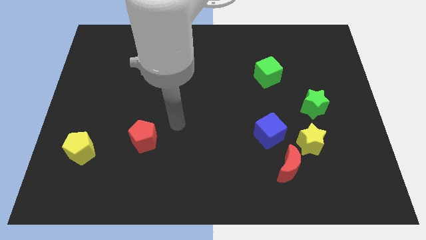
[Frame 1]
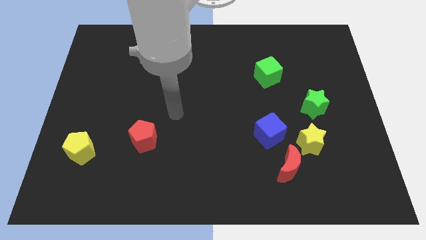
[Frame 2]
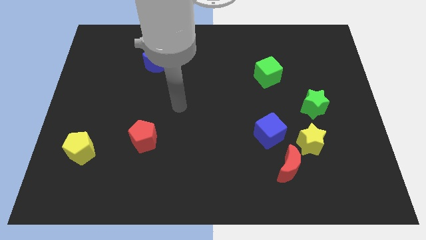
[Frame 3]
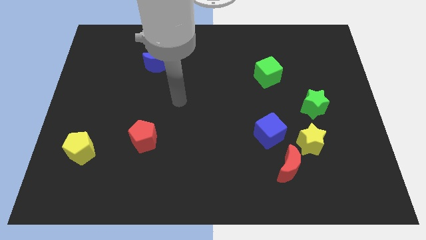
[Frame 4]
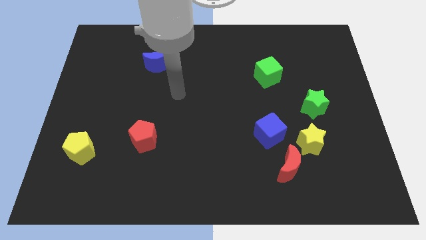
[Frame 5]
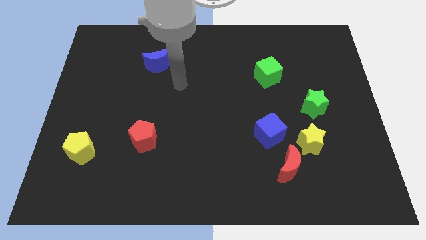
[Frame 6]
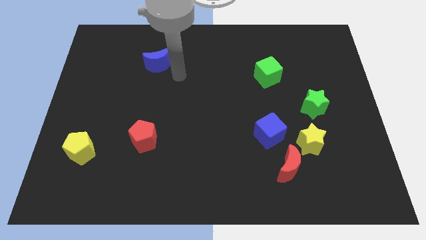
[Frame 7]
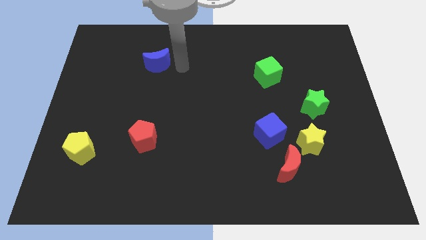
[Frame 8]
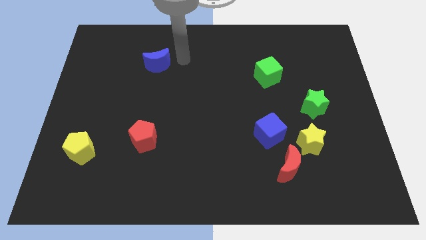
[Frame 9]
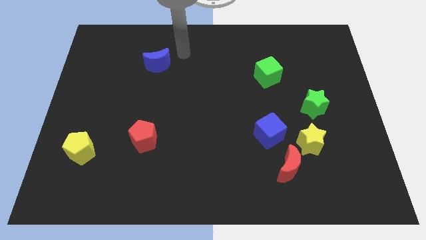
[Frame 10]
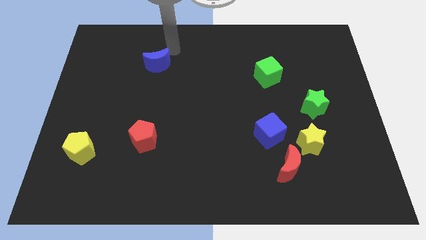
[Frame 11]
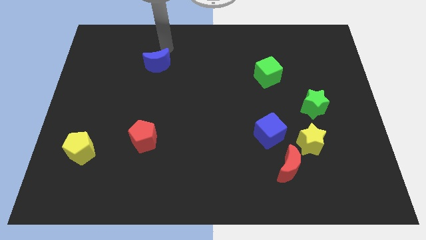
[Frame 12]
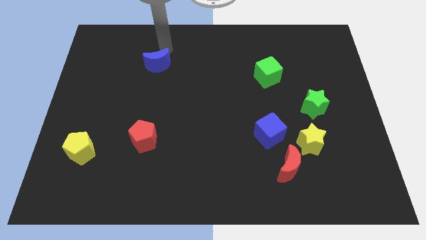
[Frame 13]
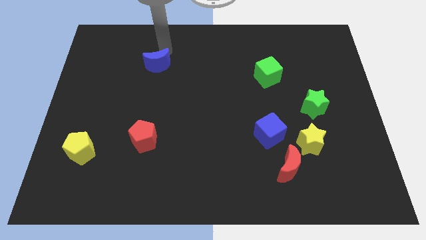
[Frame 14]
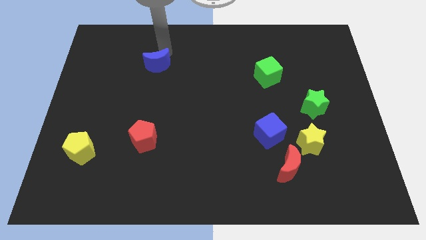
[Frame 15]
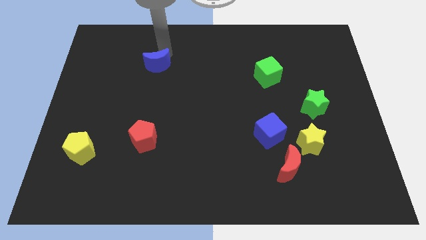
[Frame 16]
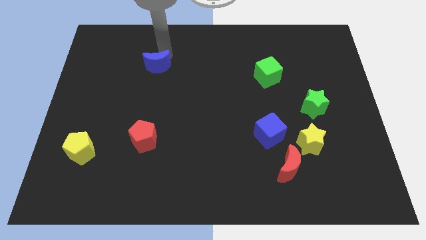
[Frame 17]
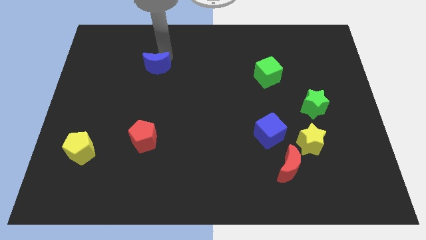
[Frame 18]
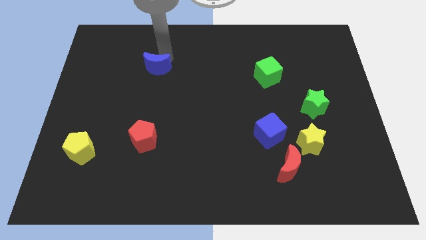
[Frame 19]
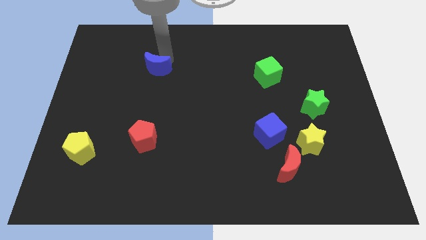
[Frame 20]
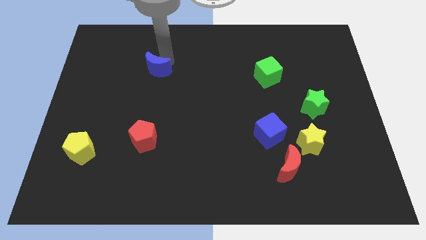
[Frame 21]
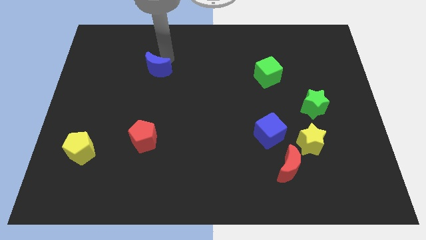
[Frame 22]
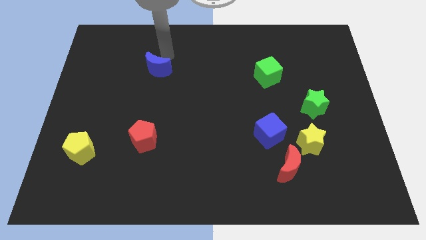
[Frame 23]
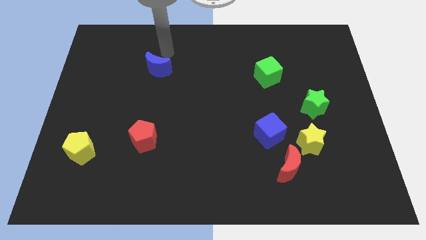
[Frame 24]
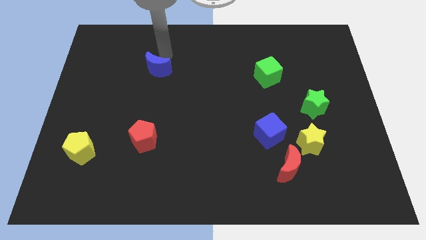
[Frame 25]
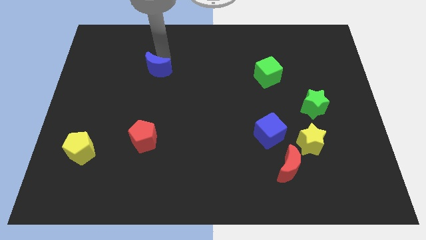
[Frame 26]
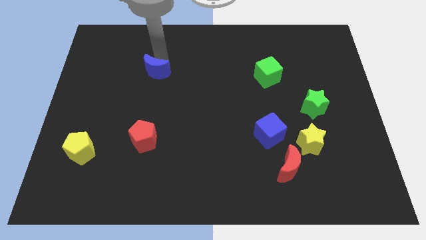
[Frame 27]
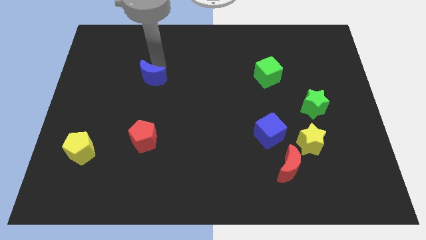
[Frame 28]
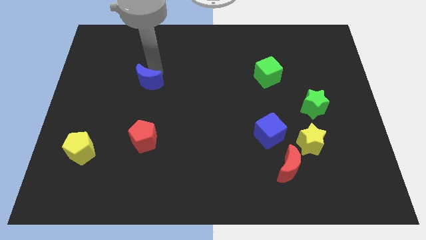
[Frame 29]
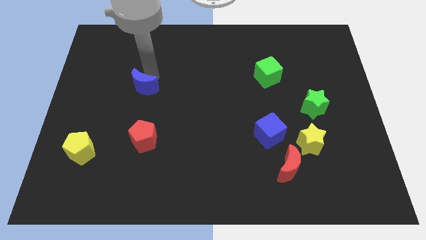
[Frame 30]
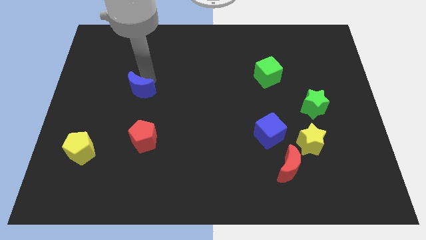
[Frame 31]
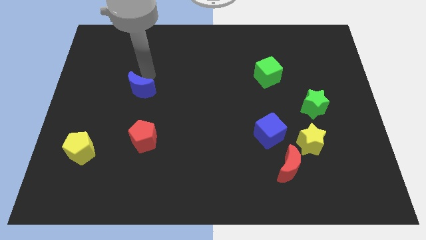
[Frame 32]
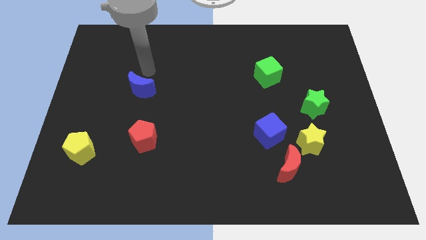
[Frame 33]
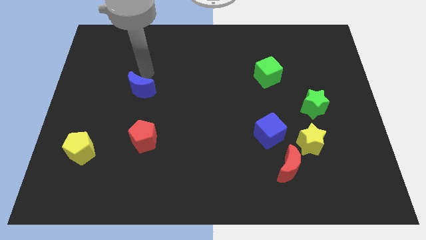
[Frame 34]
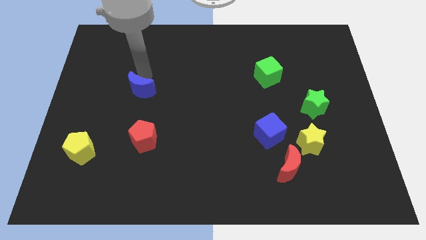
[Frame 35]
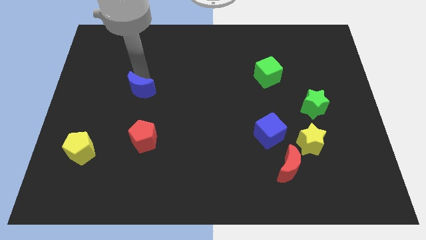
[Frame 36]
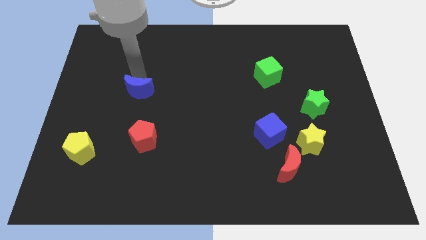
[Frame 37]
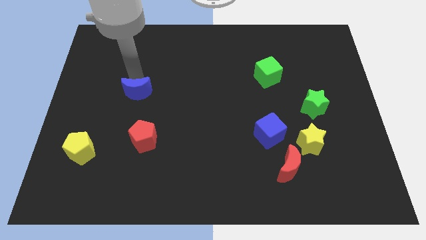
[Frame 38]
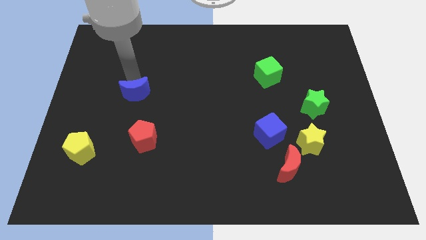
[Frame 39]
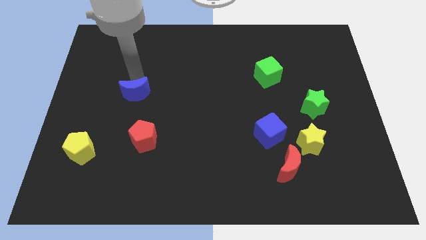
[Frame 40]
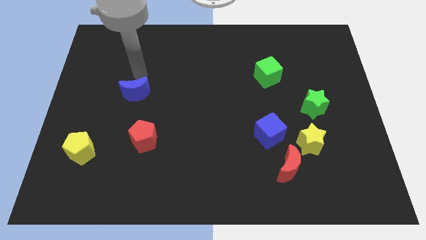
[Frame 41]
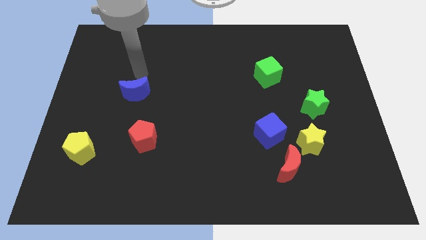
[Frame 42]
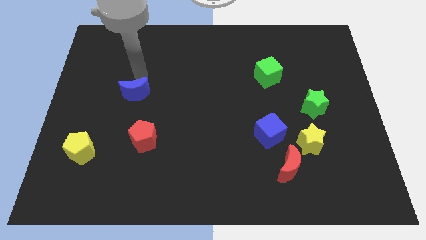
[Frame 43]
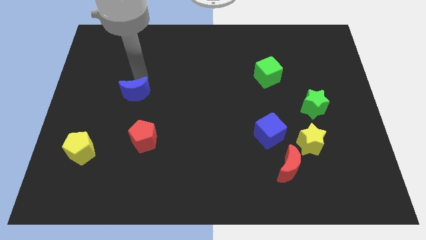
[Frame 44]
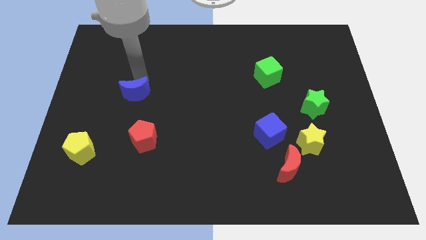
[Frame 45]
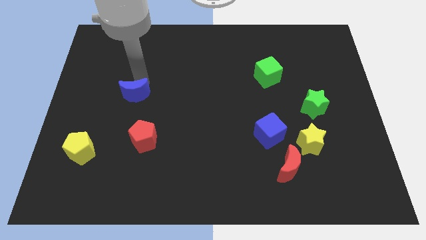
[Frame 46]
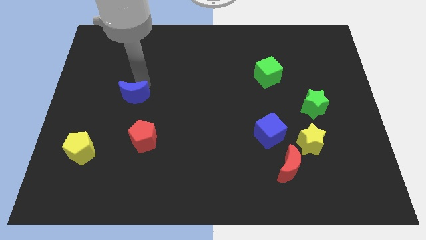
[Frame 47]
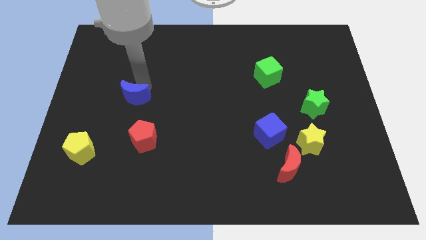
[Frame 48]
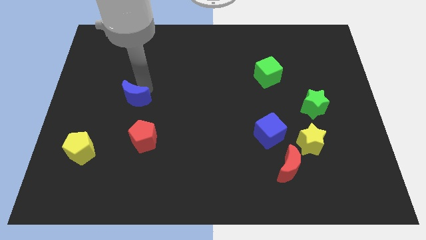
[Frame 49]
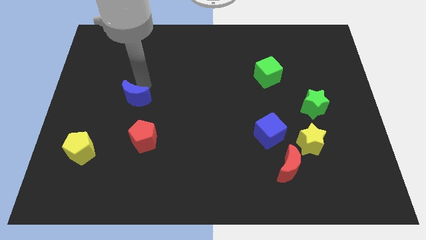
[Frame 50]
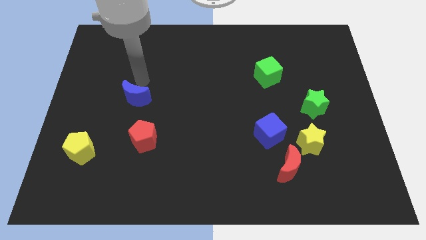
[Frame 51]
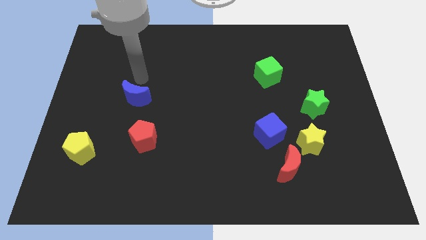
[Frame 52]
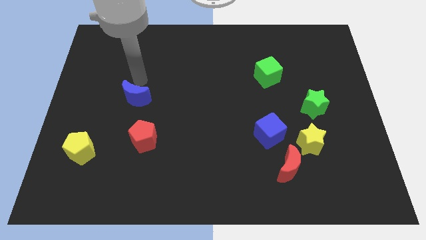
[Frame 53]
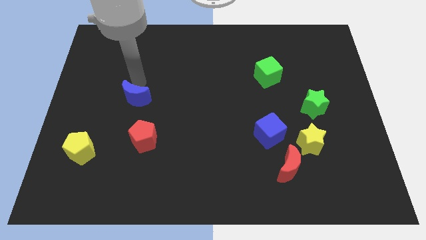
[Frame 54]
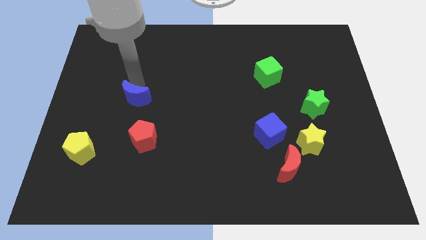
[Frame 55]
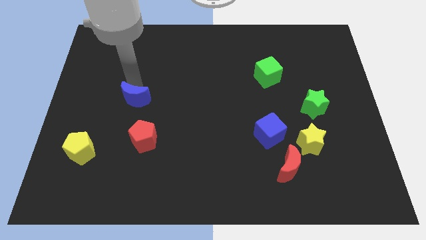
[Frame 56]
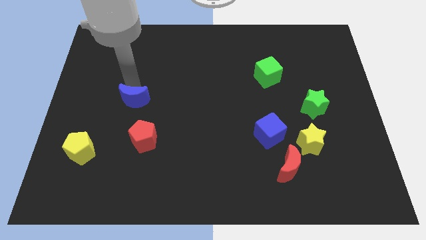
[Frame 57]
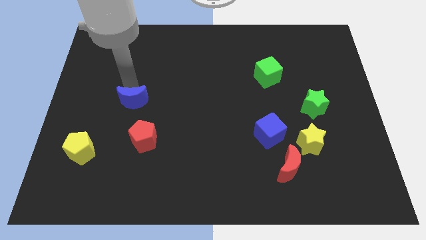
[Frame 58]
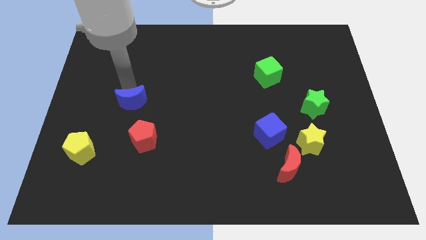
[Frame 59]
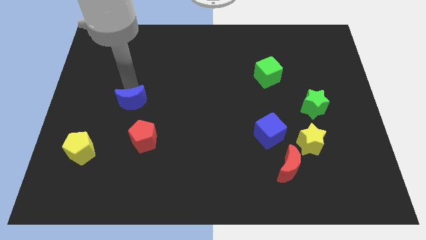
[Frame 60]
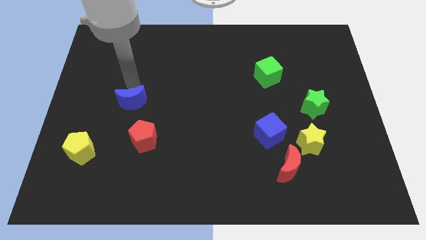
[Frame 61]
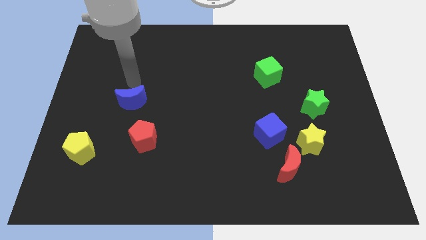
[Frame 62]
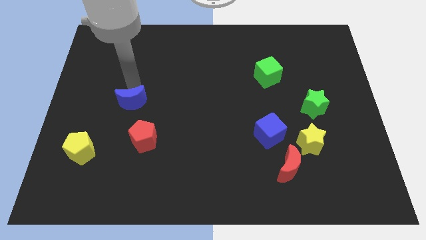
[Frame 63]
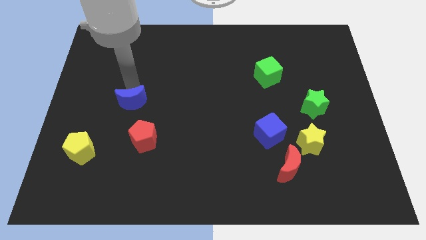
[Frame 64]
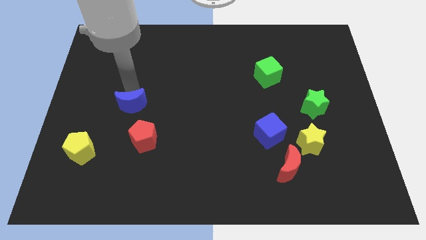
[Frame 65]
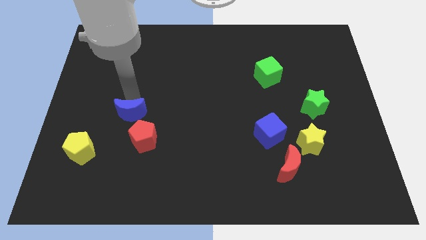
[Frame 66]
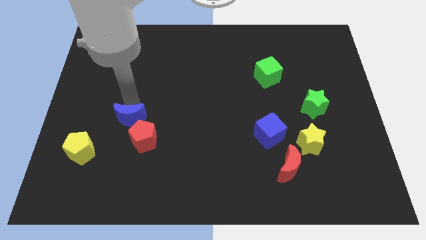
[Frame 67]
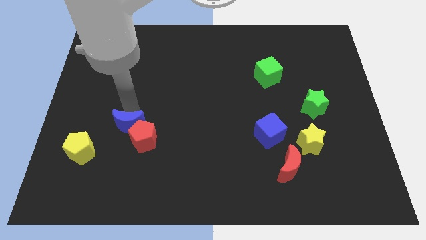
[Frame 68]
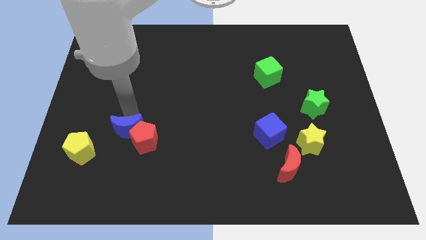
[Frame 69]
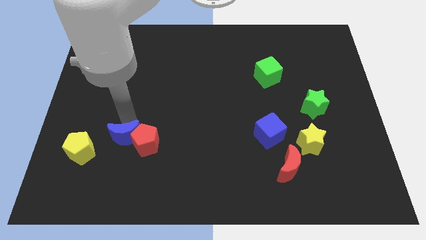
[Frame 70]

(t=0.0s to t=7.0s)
slide the blue moon to the right of the yellow pentagon
